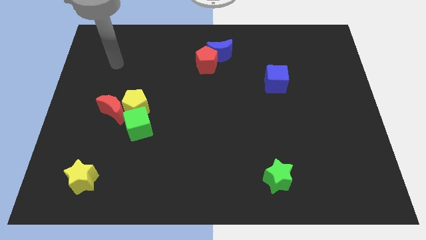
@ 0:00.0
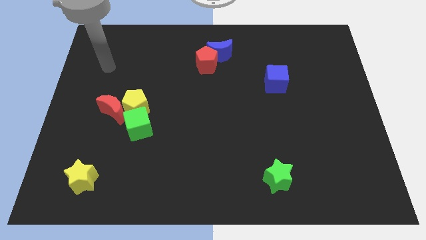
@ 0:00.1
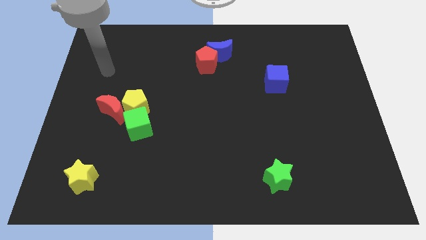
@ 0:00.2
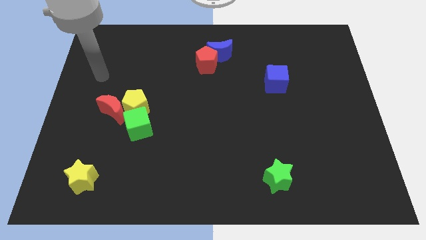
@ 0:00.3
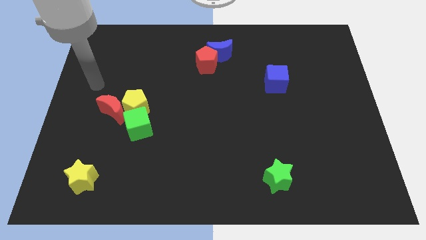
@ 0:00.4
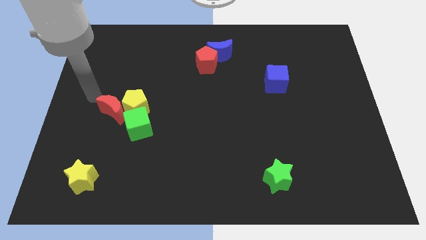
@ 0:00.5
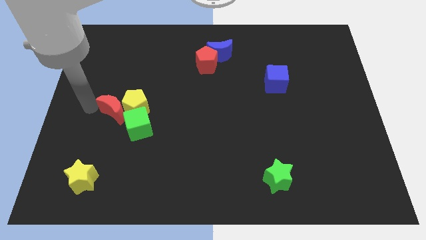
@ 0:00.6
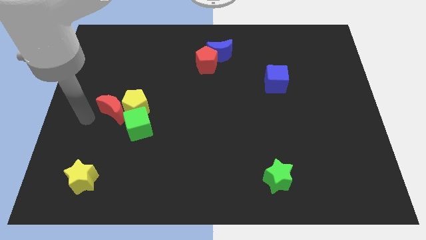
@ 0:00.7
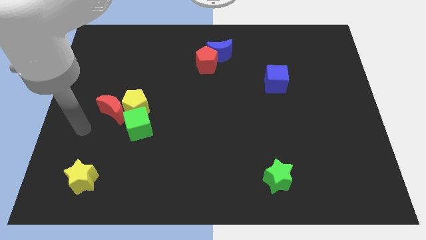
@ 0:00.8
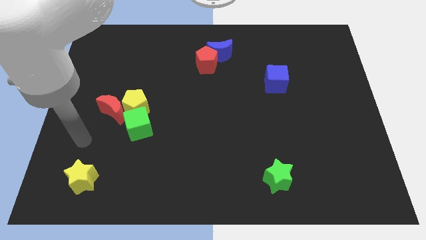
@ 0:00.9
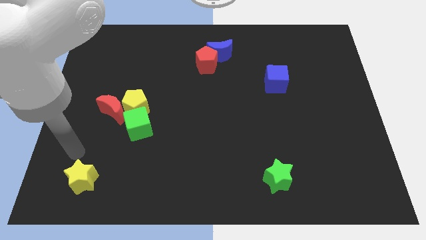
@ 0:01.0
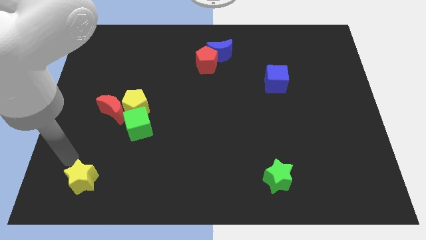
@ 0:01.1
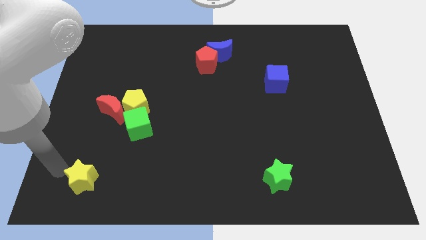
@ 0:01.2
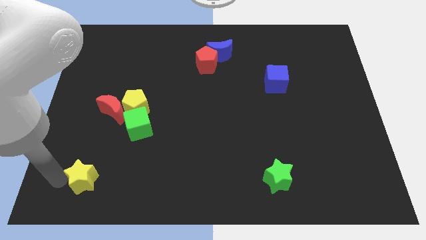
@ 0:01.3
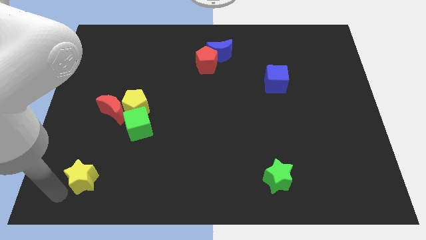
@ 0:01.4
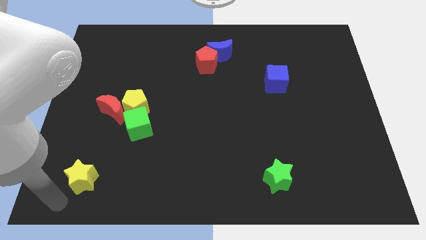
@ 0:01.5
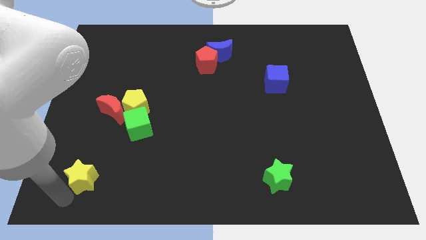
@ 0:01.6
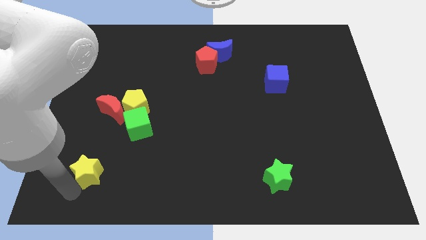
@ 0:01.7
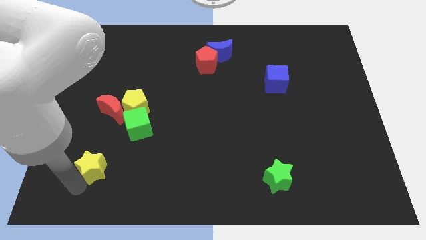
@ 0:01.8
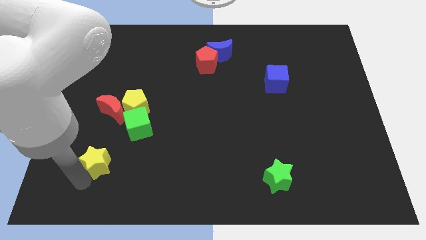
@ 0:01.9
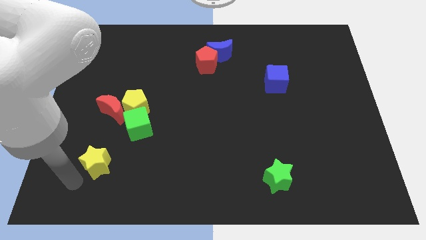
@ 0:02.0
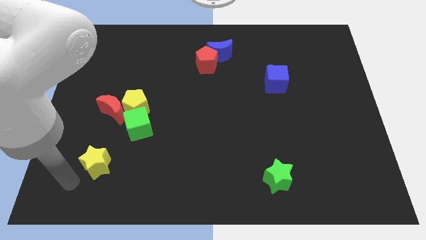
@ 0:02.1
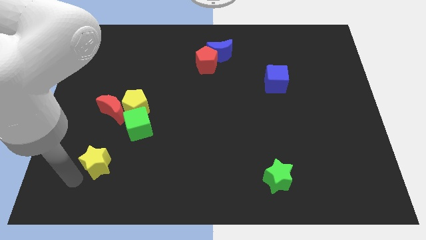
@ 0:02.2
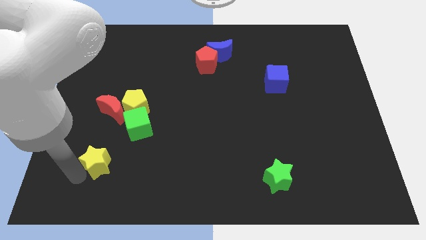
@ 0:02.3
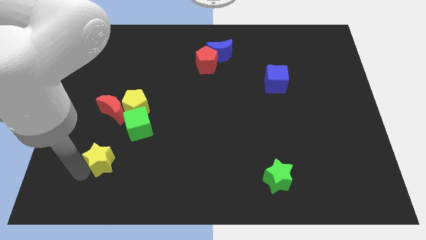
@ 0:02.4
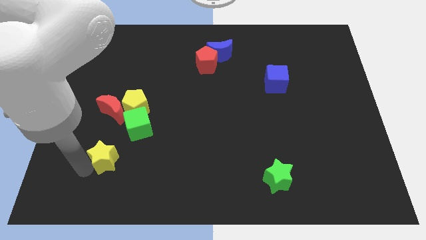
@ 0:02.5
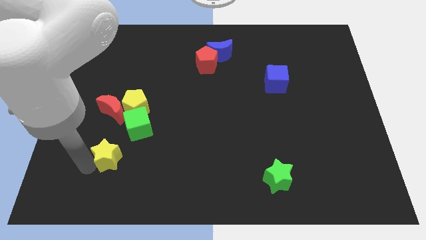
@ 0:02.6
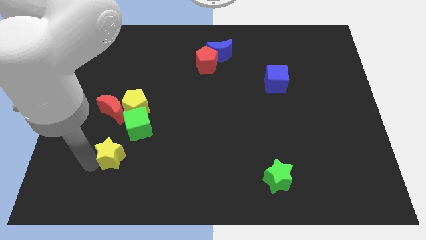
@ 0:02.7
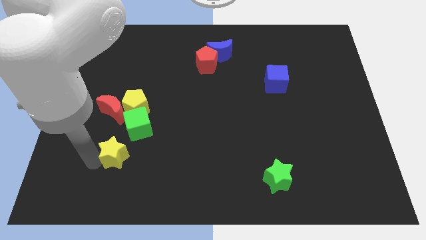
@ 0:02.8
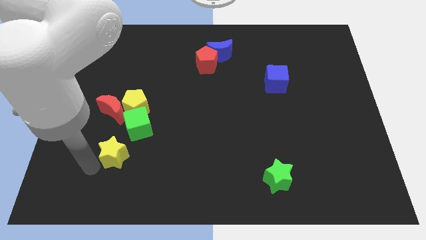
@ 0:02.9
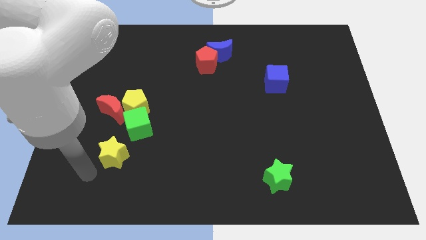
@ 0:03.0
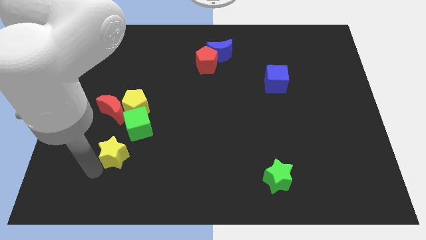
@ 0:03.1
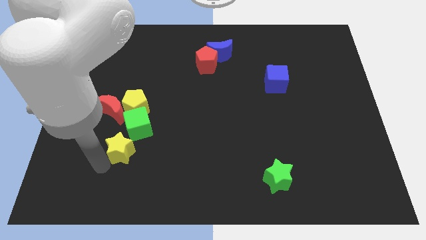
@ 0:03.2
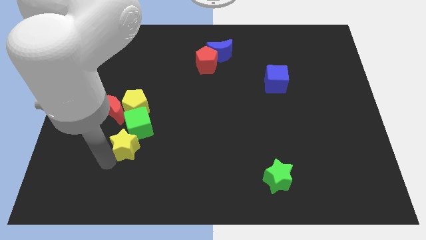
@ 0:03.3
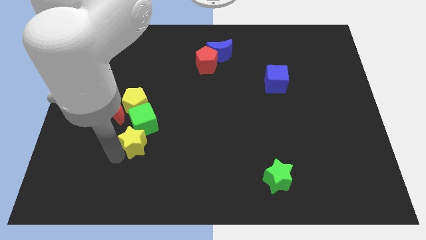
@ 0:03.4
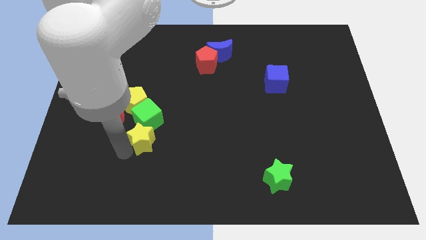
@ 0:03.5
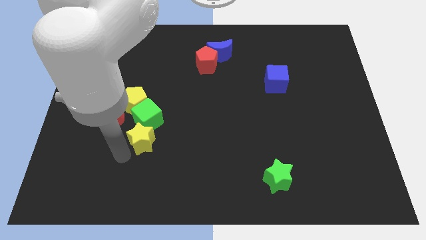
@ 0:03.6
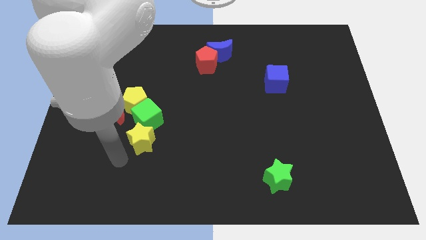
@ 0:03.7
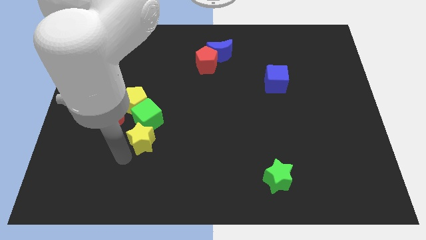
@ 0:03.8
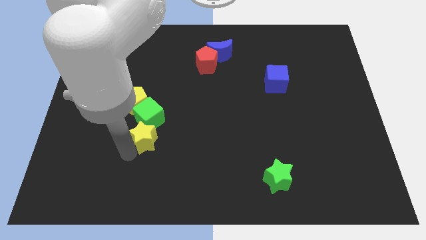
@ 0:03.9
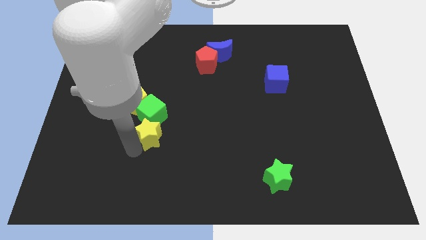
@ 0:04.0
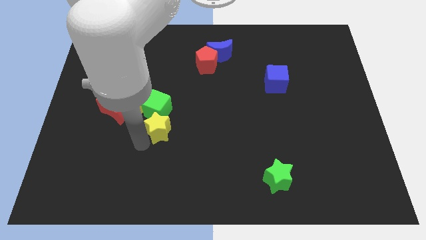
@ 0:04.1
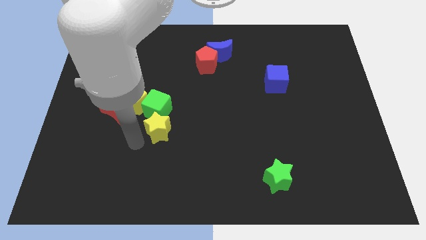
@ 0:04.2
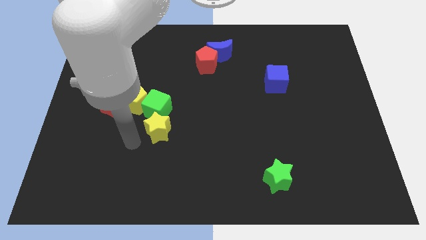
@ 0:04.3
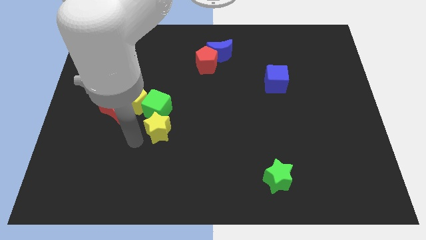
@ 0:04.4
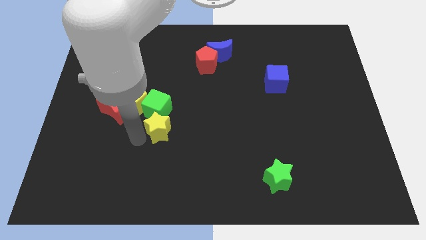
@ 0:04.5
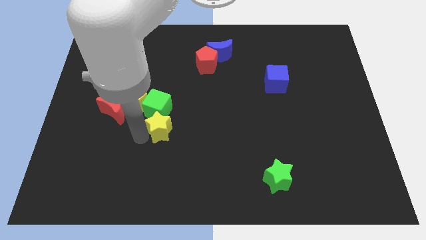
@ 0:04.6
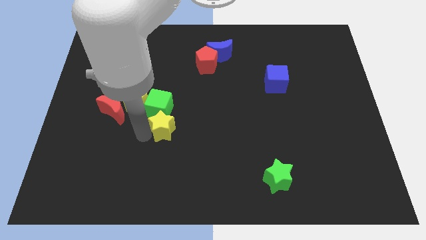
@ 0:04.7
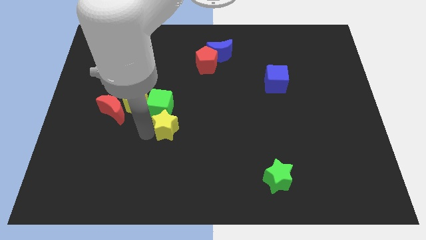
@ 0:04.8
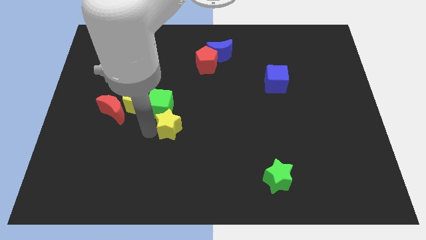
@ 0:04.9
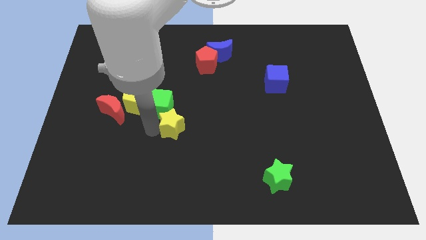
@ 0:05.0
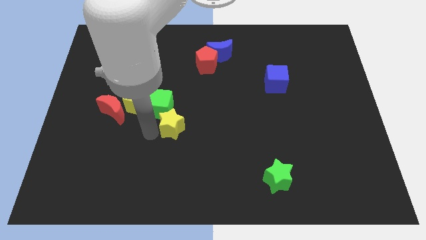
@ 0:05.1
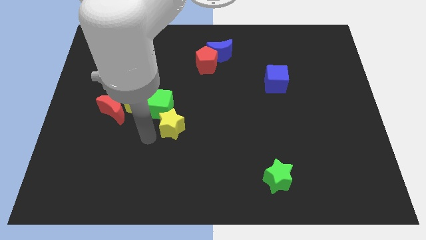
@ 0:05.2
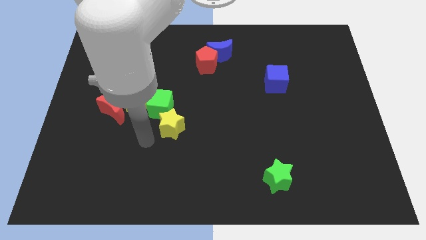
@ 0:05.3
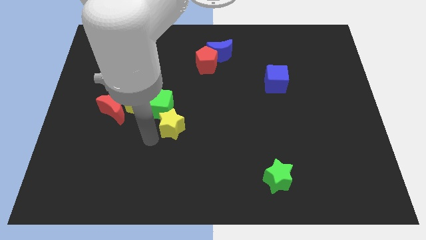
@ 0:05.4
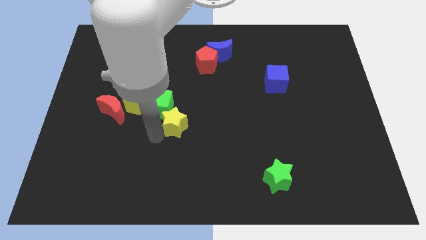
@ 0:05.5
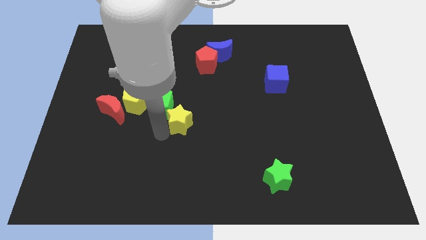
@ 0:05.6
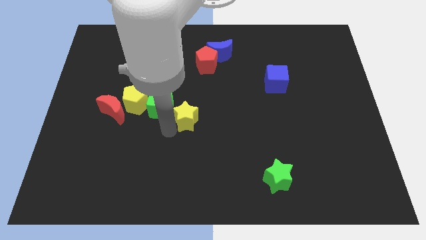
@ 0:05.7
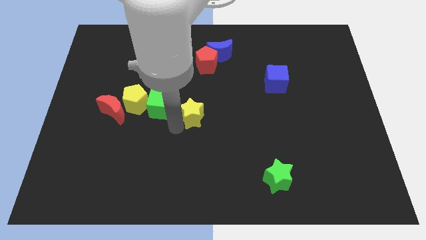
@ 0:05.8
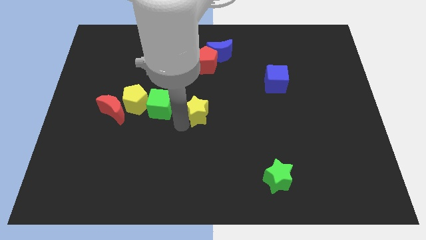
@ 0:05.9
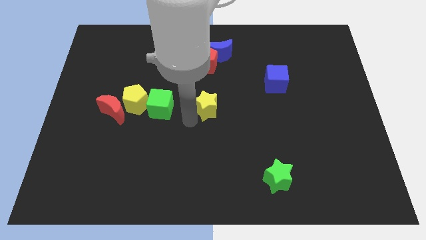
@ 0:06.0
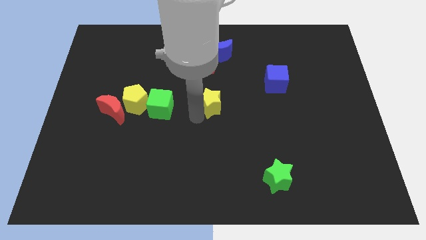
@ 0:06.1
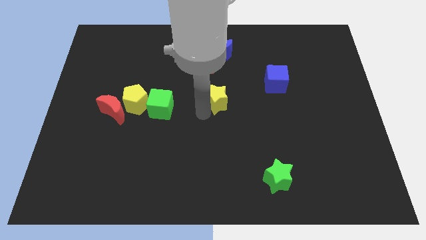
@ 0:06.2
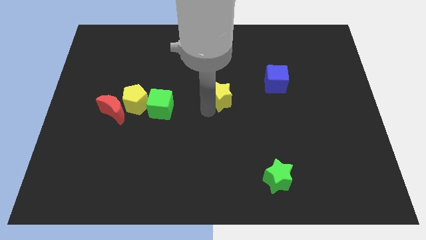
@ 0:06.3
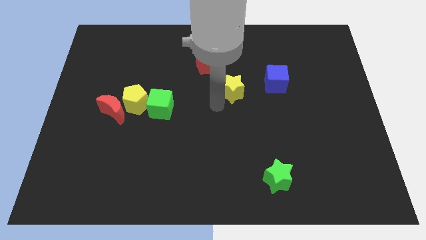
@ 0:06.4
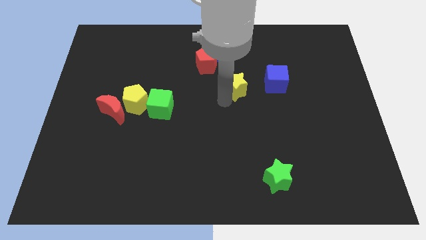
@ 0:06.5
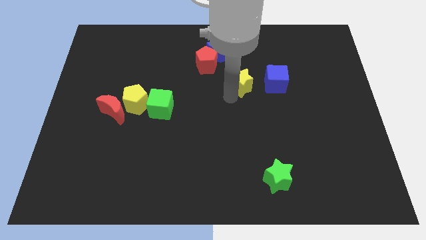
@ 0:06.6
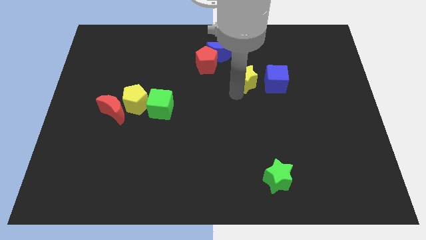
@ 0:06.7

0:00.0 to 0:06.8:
put the yellow star diagonally down and to the right of the blue moon
